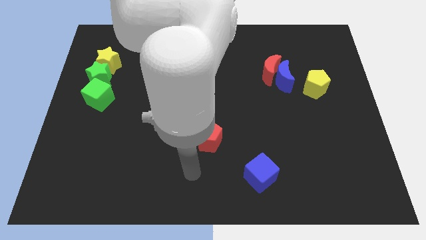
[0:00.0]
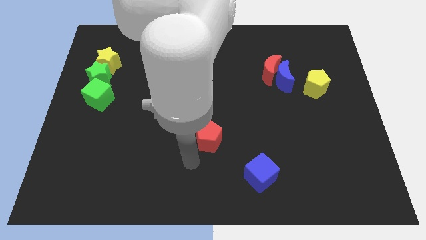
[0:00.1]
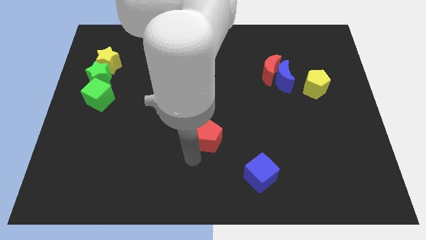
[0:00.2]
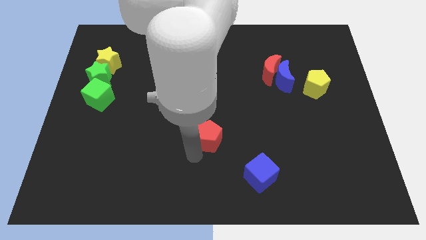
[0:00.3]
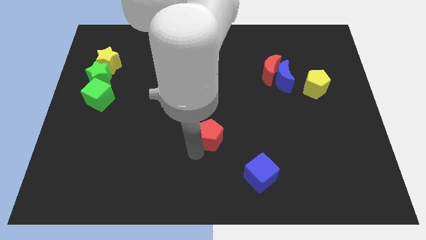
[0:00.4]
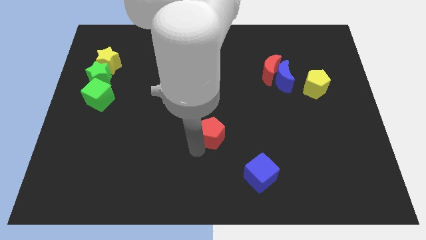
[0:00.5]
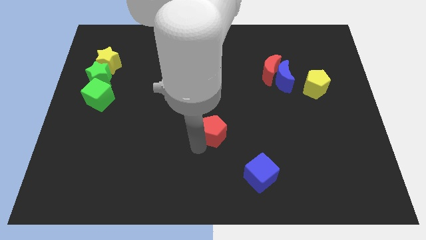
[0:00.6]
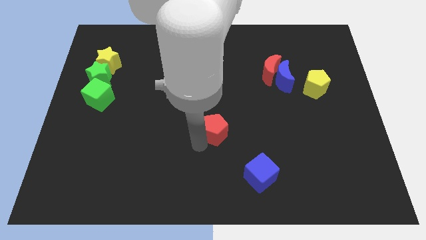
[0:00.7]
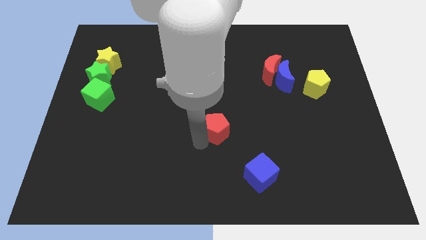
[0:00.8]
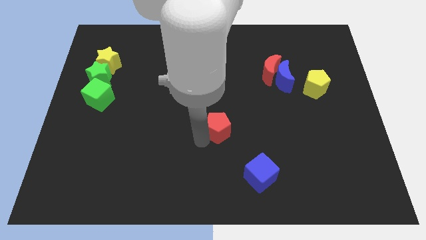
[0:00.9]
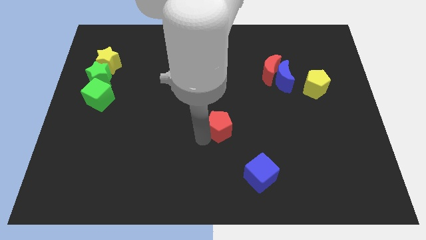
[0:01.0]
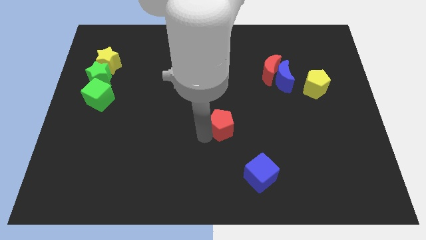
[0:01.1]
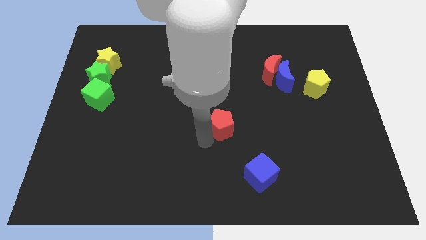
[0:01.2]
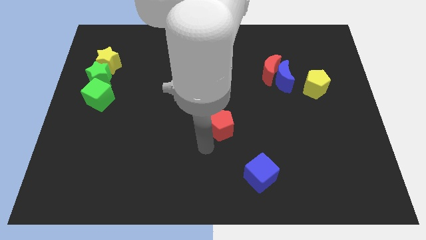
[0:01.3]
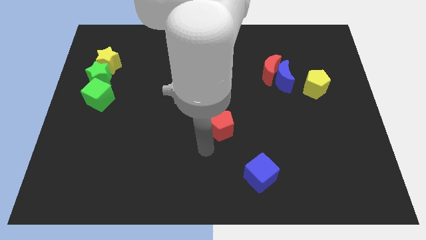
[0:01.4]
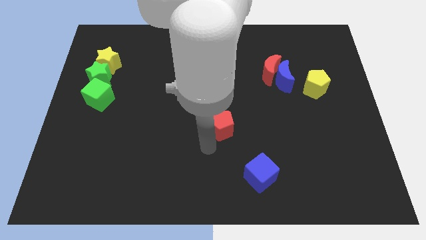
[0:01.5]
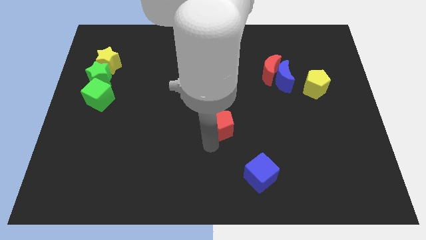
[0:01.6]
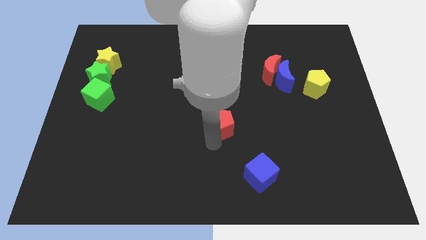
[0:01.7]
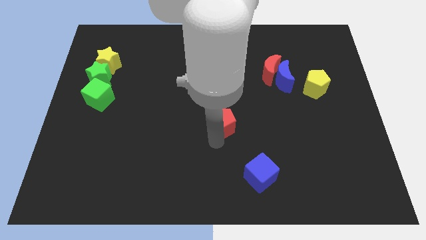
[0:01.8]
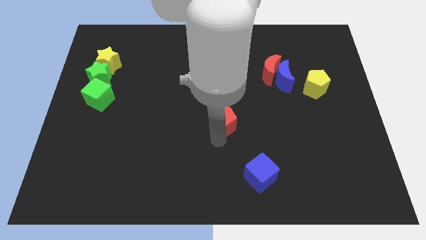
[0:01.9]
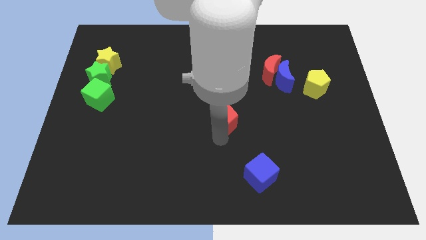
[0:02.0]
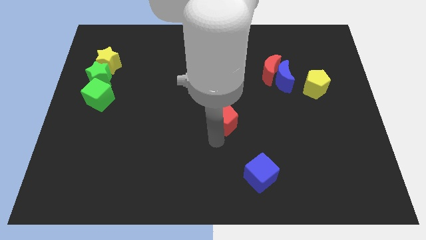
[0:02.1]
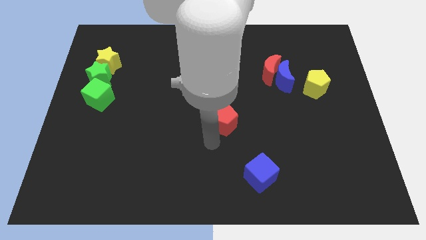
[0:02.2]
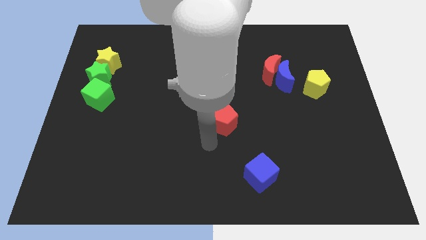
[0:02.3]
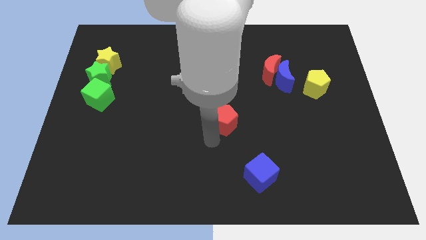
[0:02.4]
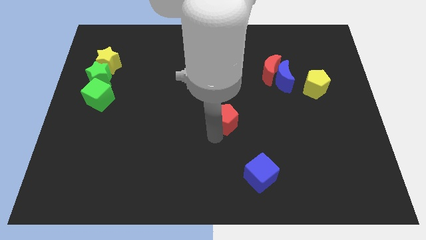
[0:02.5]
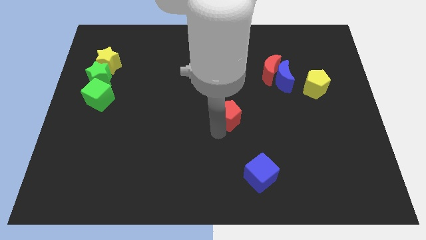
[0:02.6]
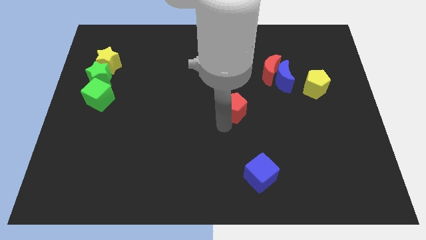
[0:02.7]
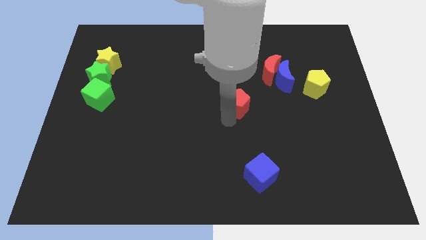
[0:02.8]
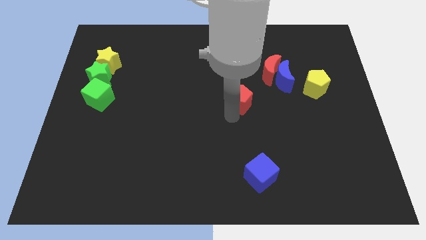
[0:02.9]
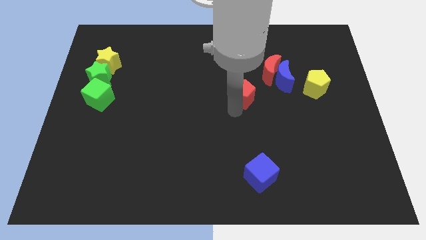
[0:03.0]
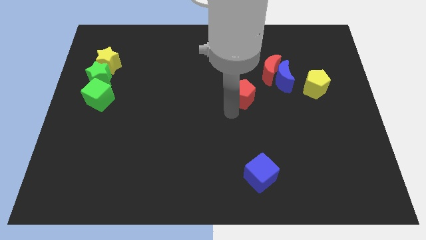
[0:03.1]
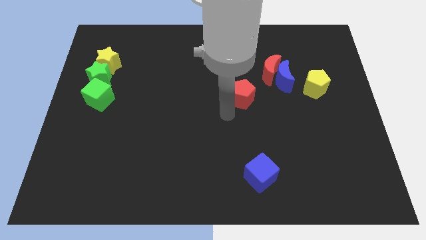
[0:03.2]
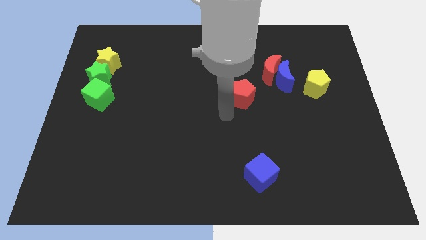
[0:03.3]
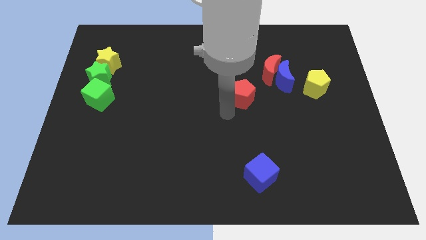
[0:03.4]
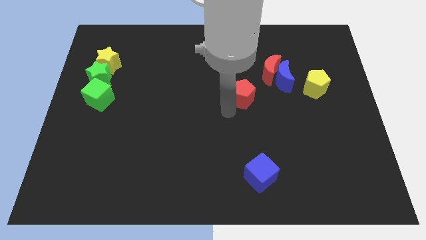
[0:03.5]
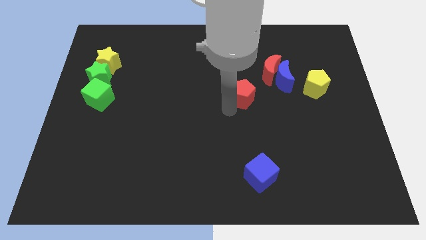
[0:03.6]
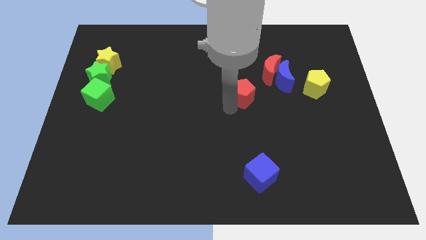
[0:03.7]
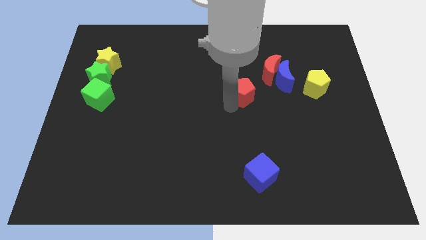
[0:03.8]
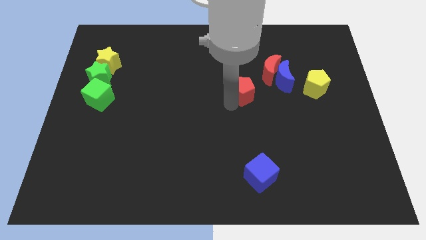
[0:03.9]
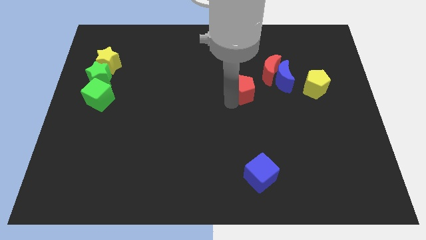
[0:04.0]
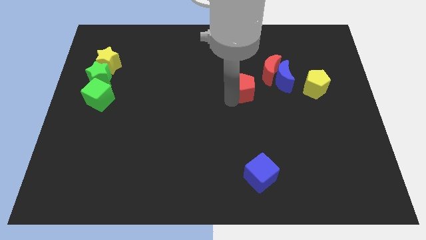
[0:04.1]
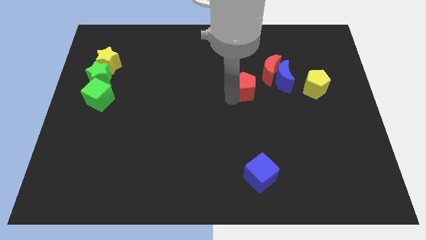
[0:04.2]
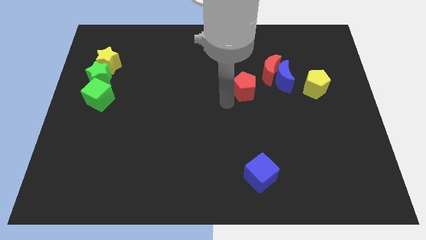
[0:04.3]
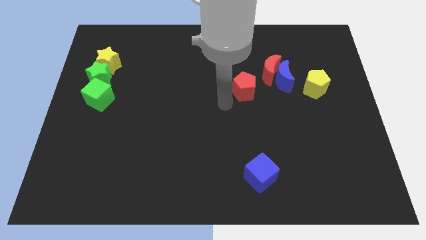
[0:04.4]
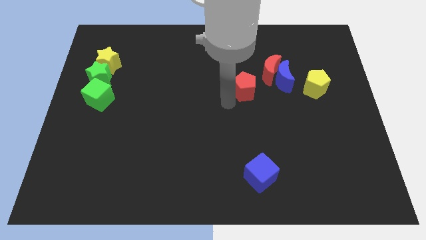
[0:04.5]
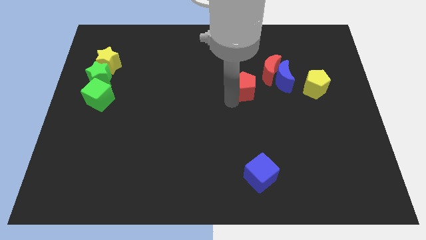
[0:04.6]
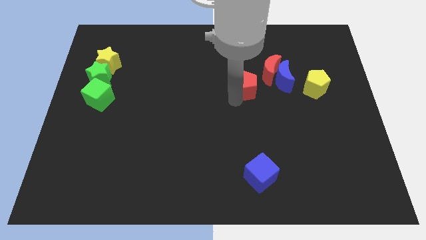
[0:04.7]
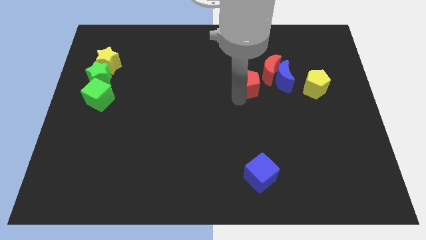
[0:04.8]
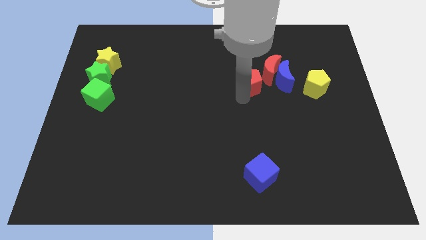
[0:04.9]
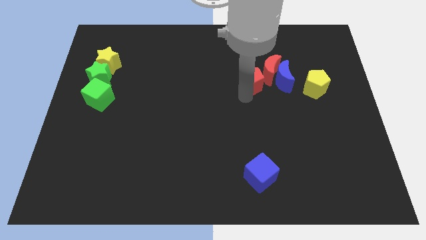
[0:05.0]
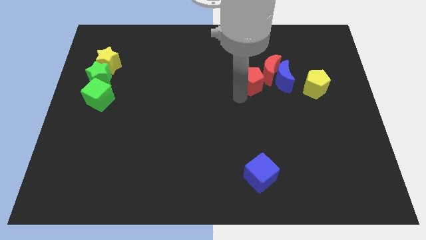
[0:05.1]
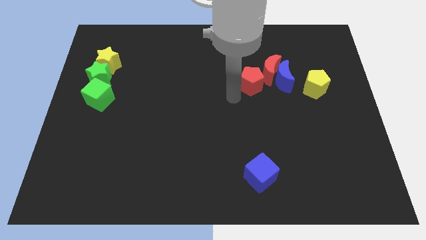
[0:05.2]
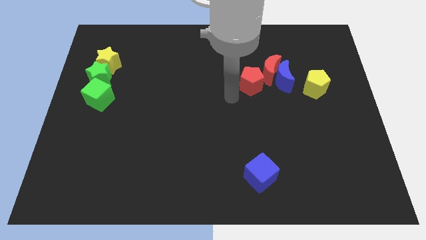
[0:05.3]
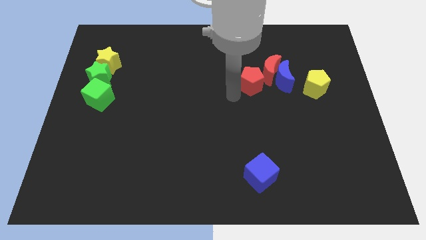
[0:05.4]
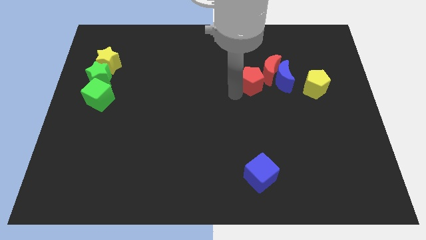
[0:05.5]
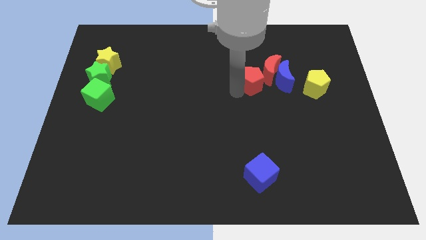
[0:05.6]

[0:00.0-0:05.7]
move the red pentagon next to the red moon

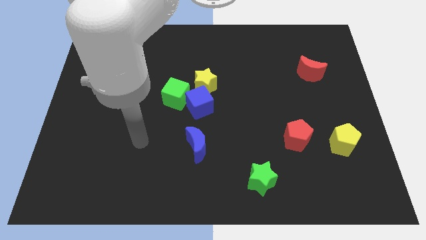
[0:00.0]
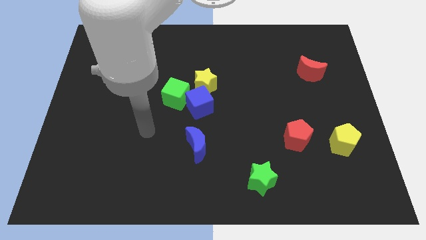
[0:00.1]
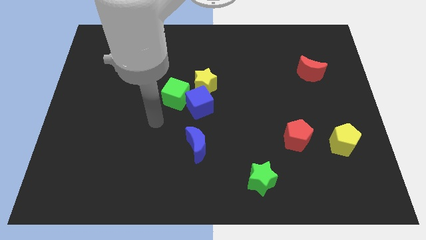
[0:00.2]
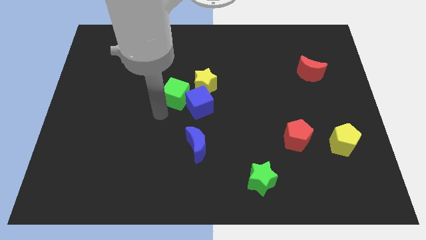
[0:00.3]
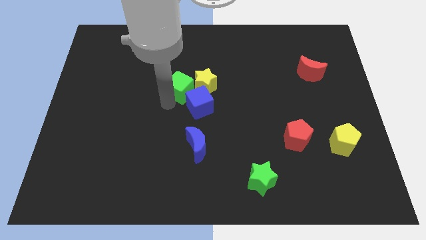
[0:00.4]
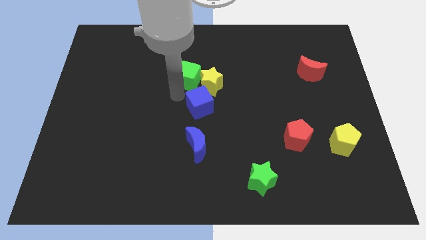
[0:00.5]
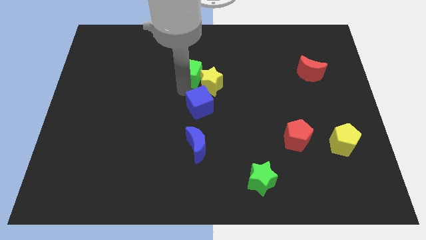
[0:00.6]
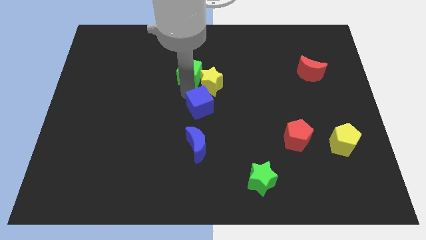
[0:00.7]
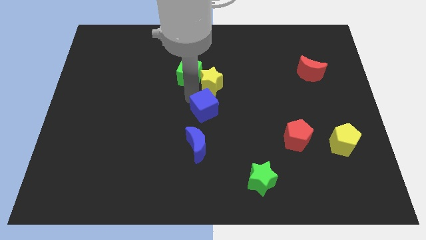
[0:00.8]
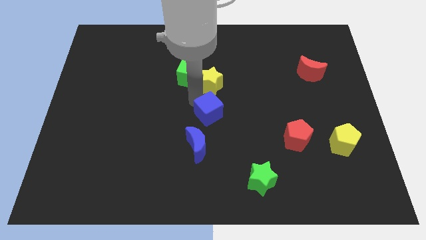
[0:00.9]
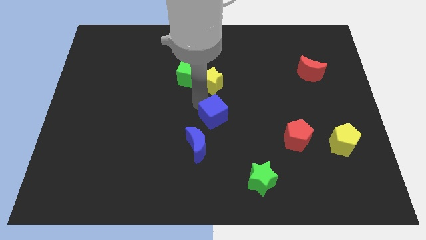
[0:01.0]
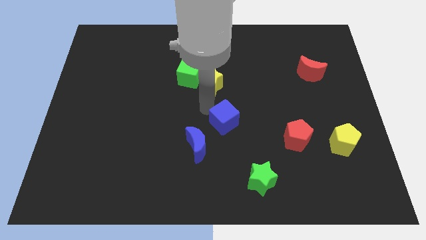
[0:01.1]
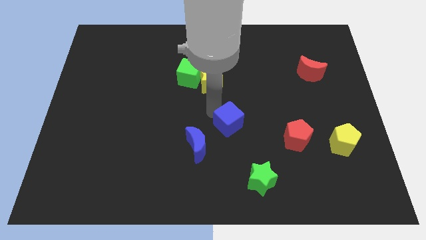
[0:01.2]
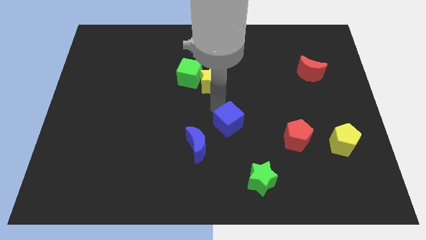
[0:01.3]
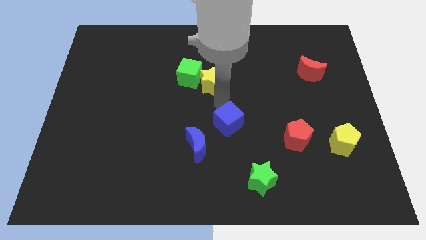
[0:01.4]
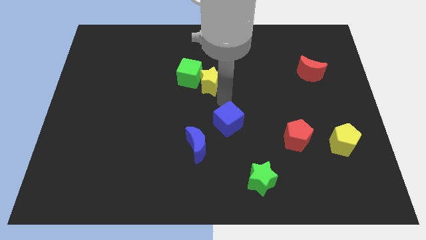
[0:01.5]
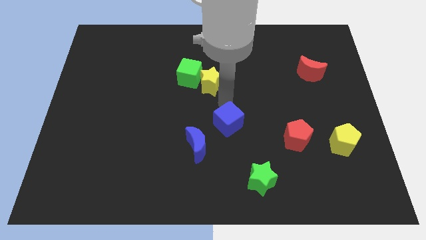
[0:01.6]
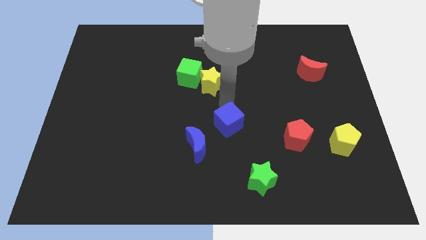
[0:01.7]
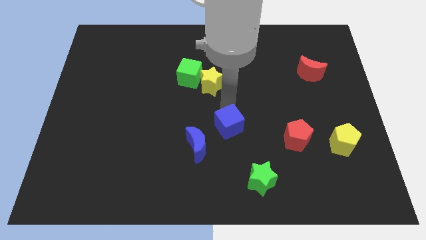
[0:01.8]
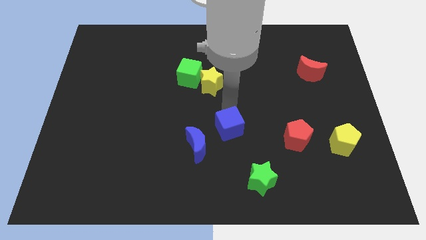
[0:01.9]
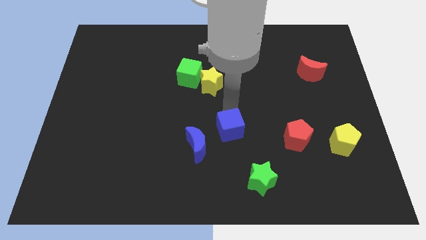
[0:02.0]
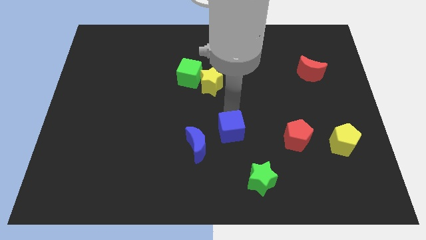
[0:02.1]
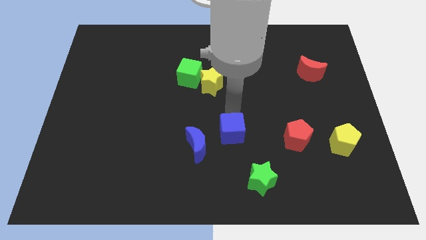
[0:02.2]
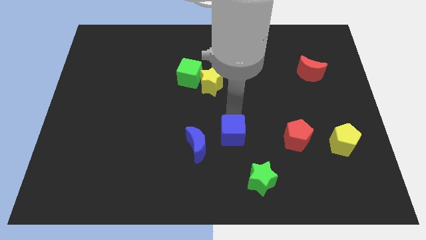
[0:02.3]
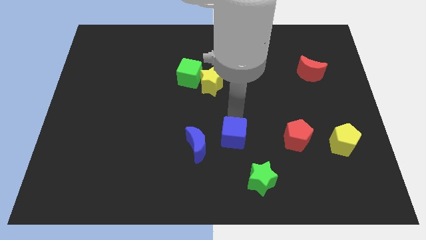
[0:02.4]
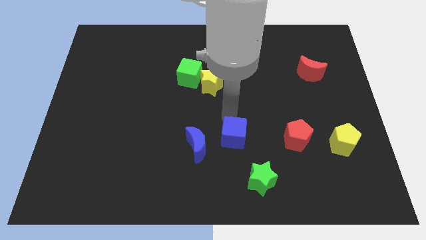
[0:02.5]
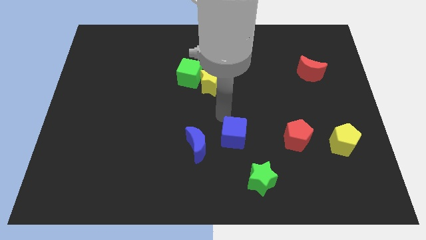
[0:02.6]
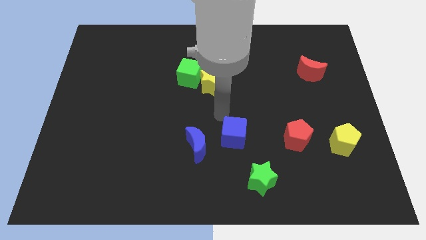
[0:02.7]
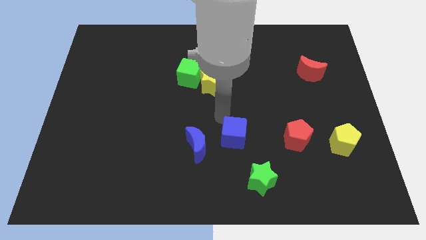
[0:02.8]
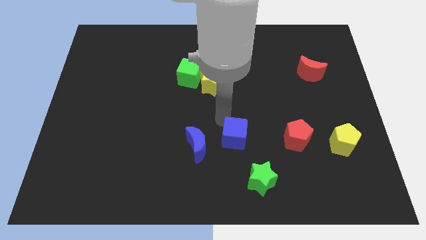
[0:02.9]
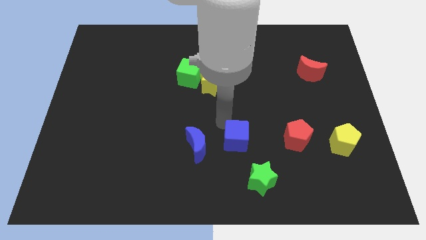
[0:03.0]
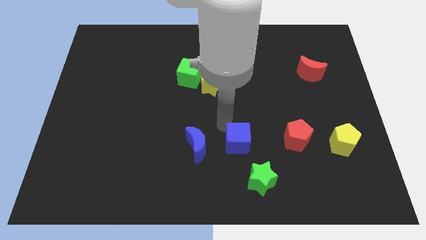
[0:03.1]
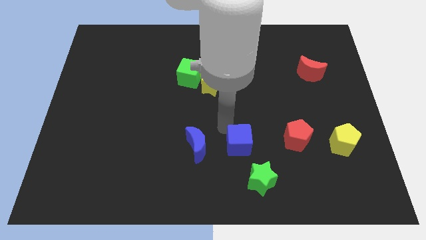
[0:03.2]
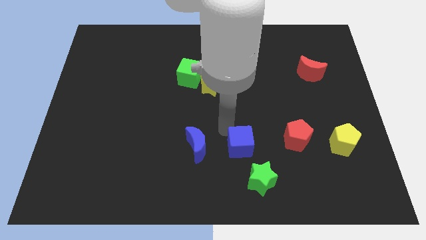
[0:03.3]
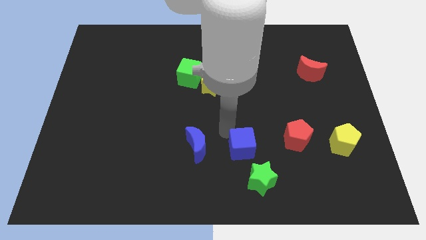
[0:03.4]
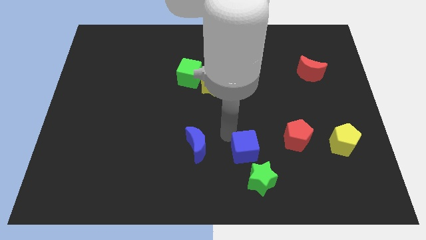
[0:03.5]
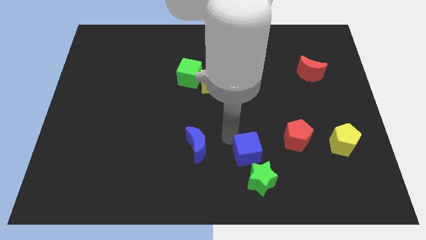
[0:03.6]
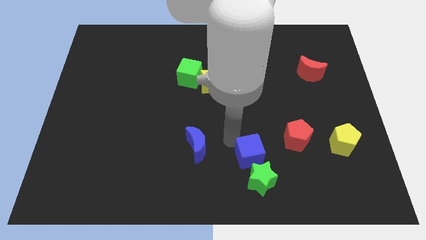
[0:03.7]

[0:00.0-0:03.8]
move the blue cube to the green star
